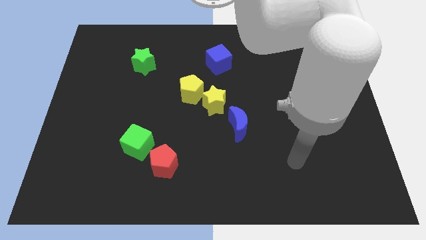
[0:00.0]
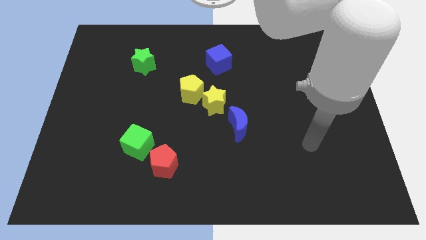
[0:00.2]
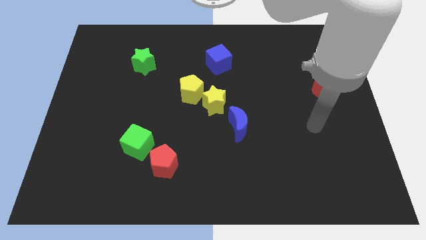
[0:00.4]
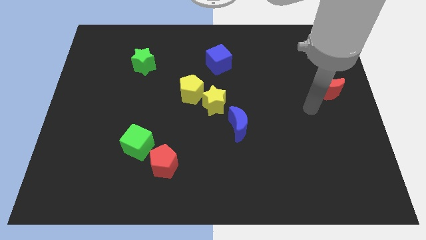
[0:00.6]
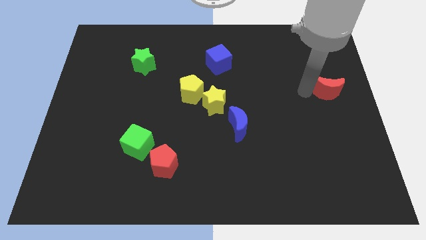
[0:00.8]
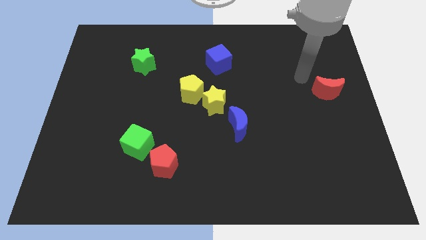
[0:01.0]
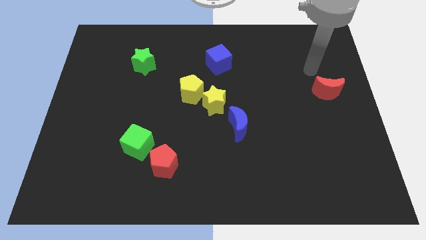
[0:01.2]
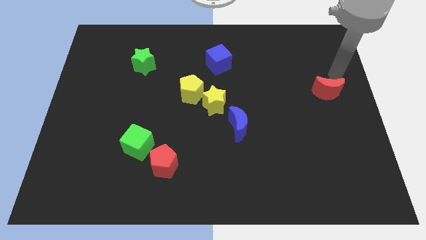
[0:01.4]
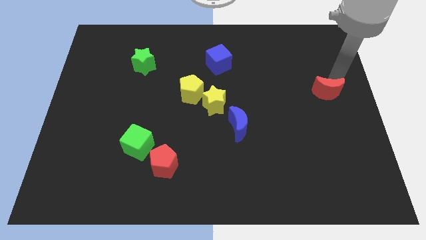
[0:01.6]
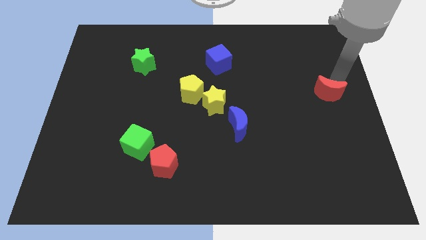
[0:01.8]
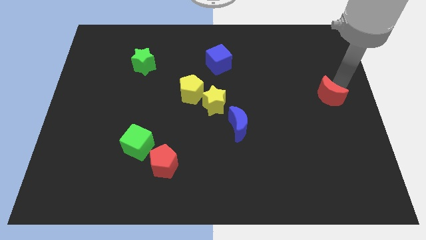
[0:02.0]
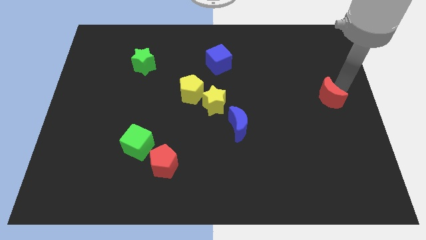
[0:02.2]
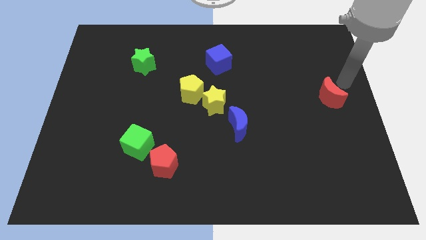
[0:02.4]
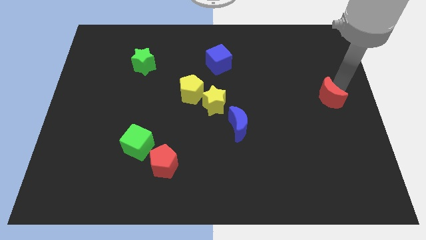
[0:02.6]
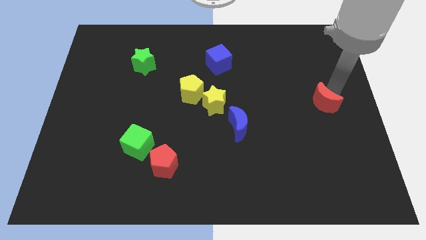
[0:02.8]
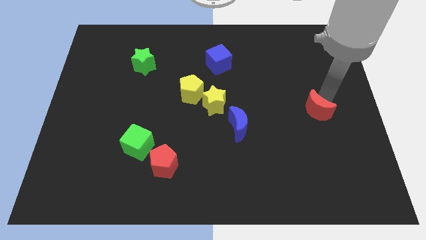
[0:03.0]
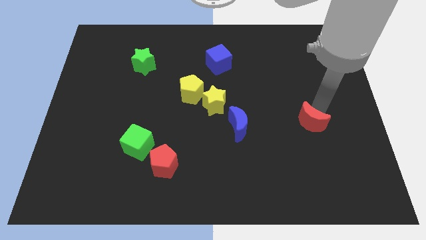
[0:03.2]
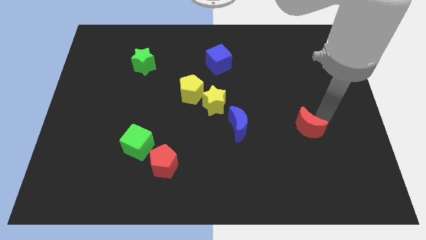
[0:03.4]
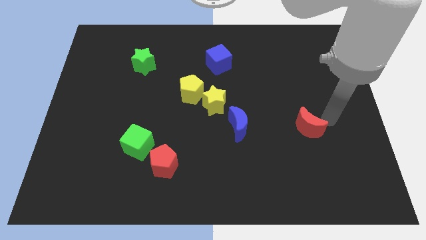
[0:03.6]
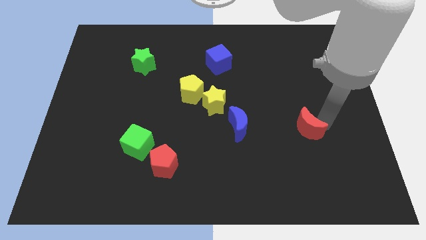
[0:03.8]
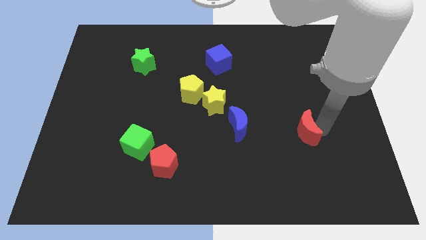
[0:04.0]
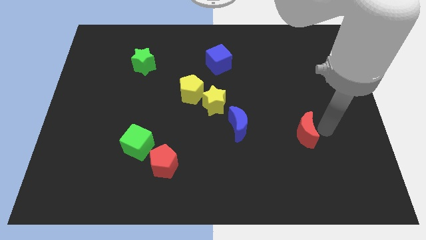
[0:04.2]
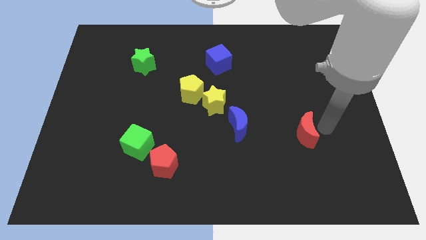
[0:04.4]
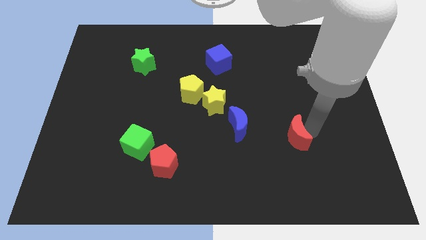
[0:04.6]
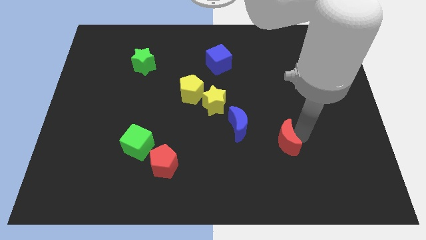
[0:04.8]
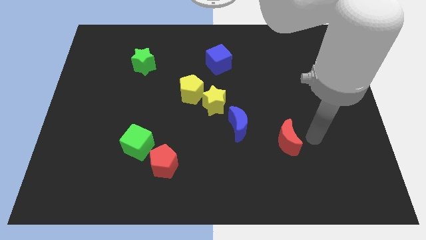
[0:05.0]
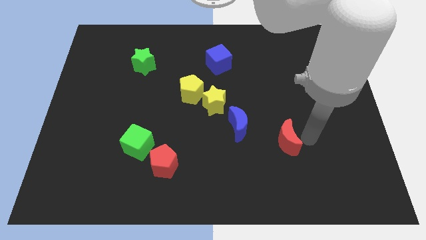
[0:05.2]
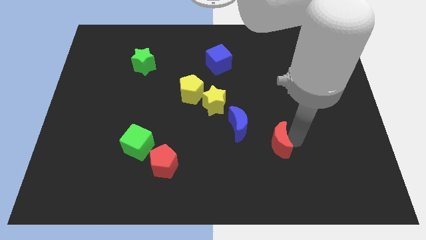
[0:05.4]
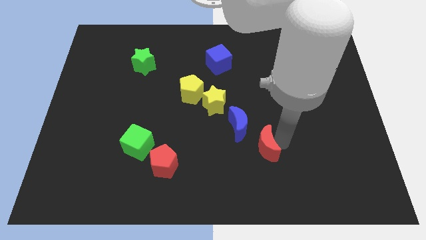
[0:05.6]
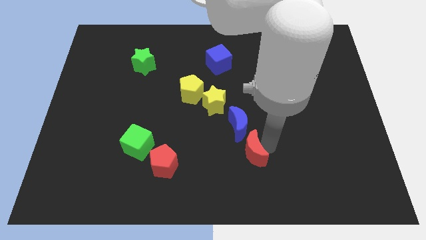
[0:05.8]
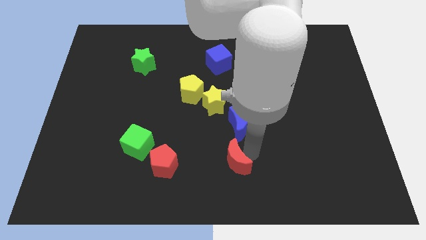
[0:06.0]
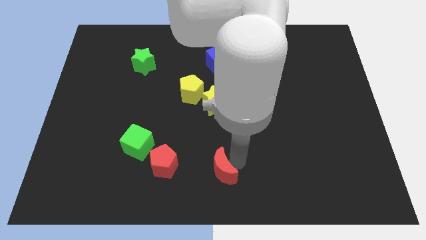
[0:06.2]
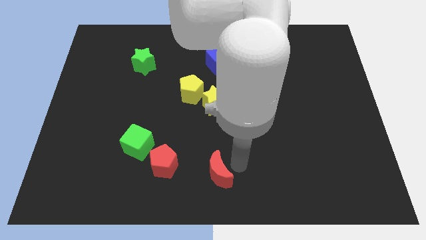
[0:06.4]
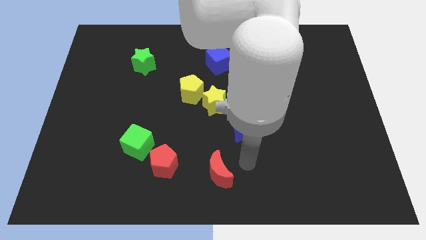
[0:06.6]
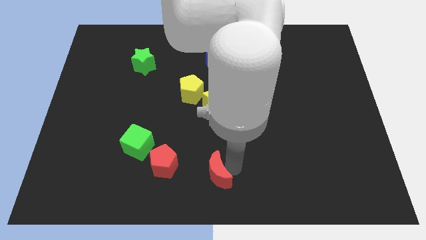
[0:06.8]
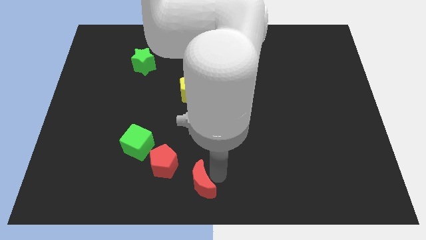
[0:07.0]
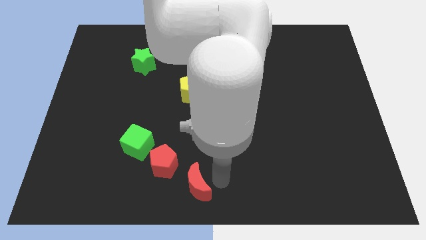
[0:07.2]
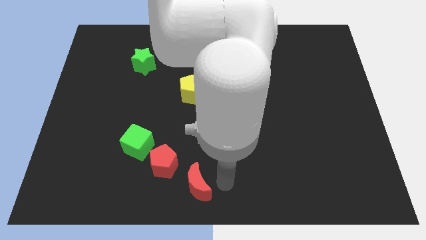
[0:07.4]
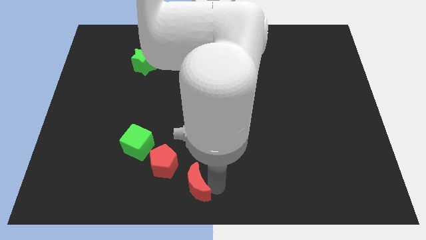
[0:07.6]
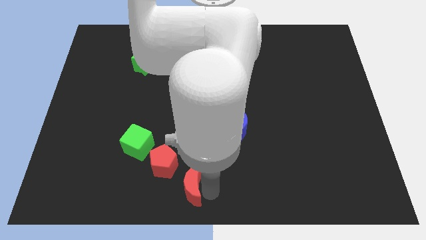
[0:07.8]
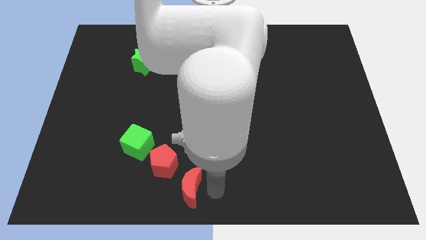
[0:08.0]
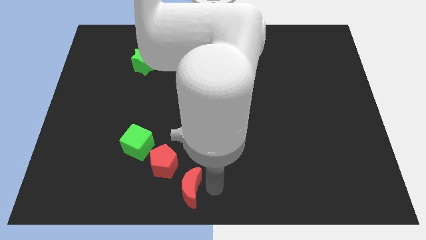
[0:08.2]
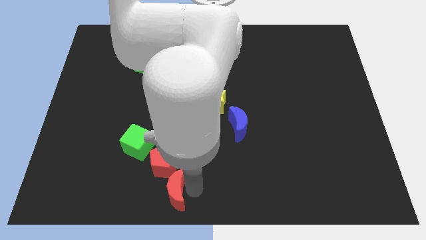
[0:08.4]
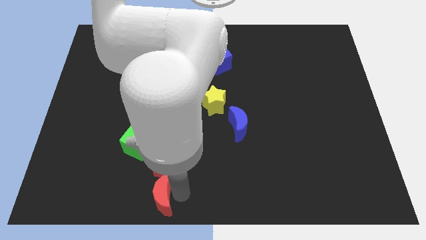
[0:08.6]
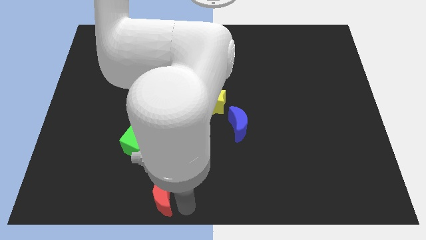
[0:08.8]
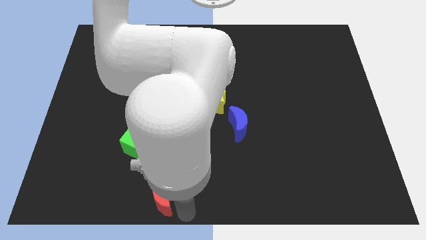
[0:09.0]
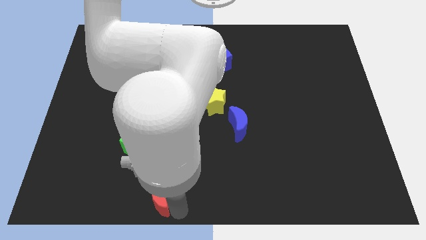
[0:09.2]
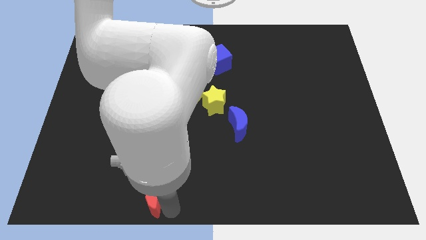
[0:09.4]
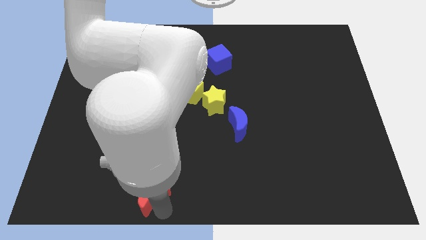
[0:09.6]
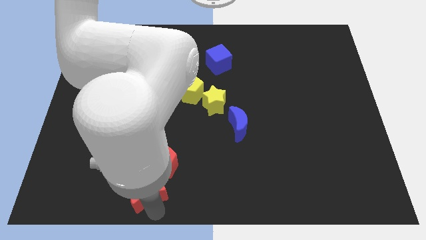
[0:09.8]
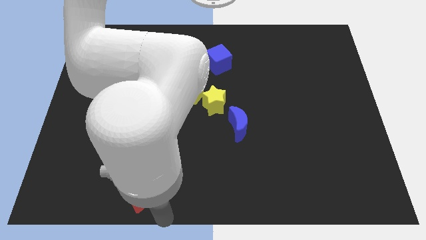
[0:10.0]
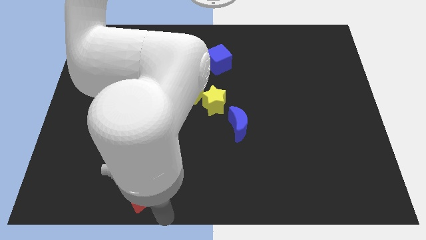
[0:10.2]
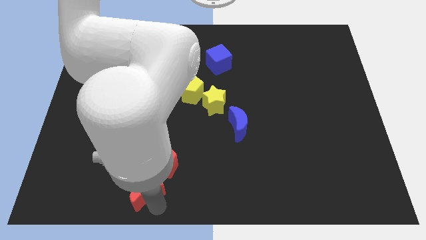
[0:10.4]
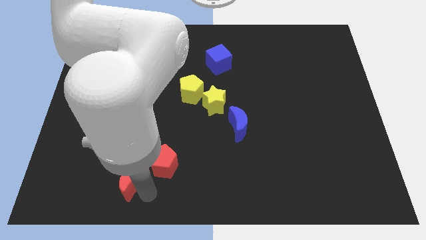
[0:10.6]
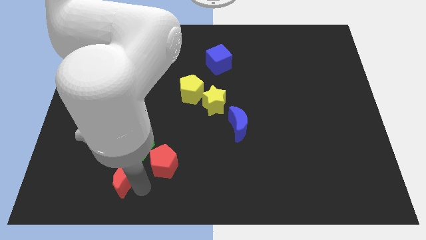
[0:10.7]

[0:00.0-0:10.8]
move the red moon diagonally down and to the left of the green cube

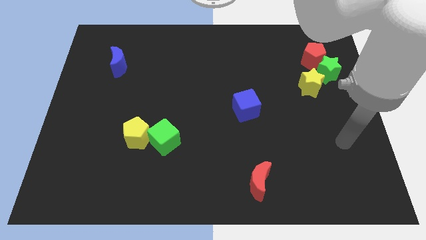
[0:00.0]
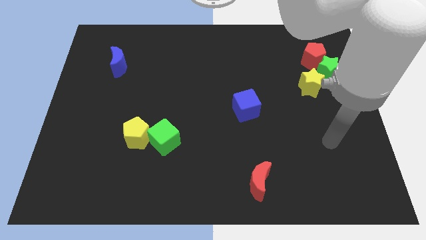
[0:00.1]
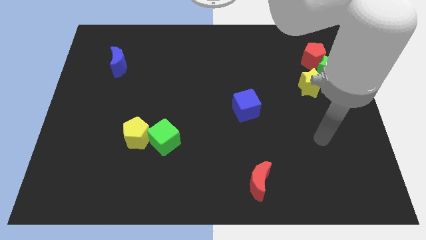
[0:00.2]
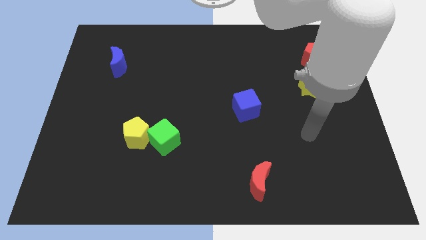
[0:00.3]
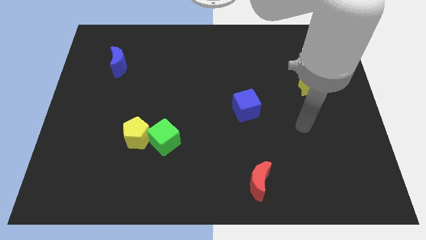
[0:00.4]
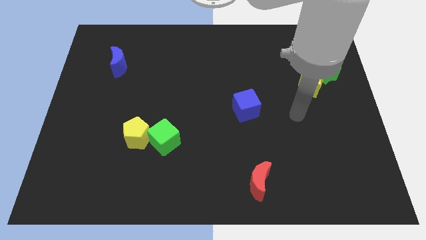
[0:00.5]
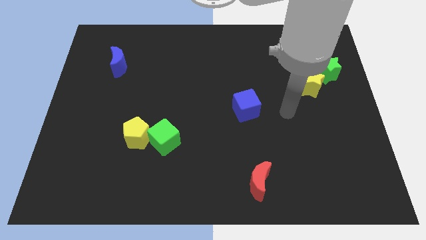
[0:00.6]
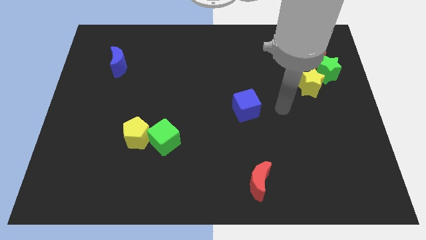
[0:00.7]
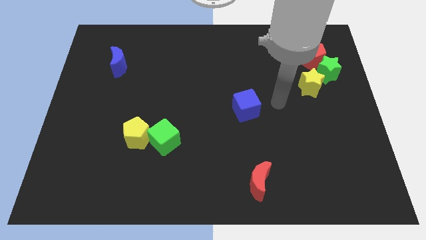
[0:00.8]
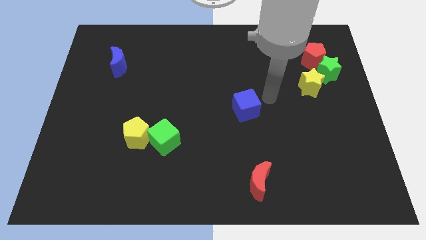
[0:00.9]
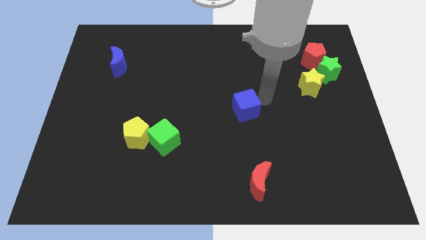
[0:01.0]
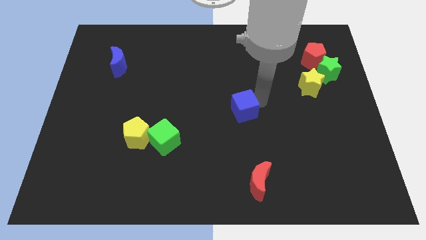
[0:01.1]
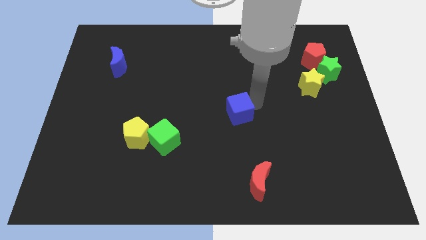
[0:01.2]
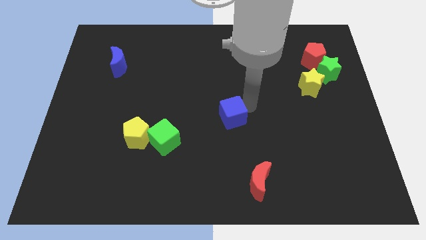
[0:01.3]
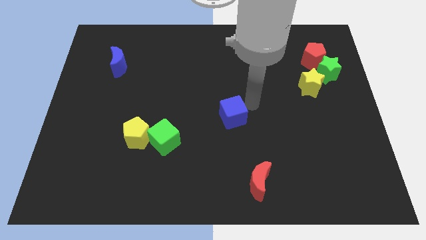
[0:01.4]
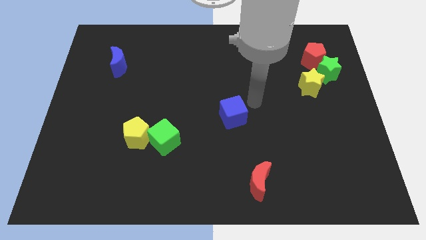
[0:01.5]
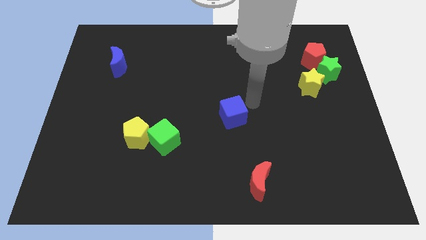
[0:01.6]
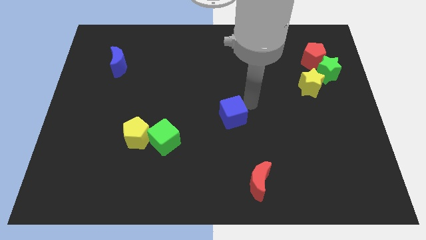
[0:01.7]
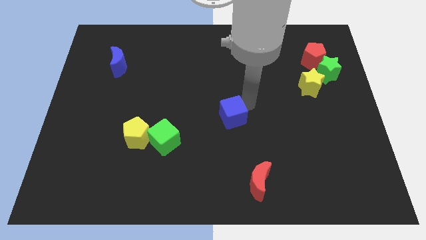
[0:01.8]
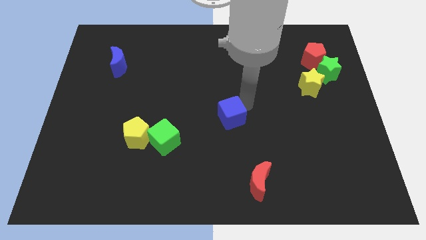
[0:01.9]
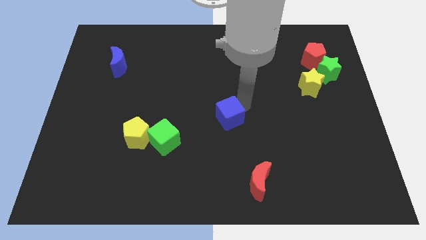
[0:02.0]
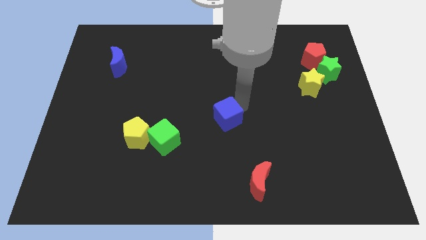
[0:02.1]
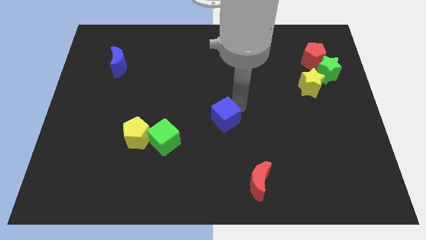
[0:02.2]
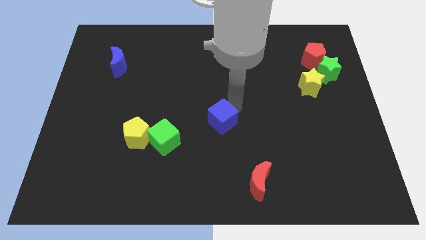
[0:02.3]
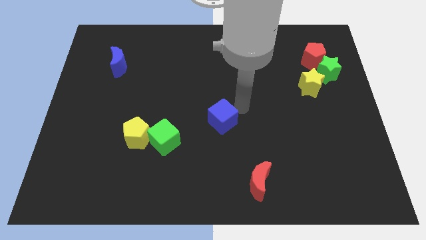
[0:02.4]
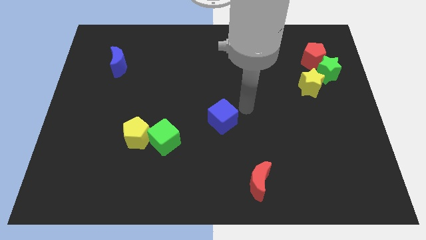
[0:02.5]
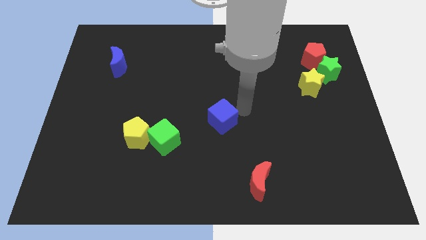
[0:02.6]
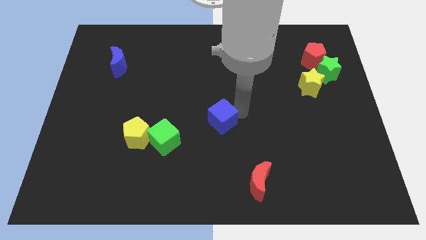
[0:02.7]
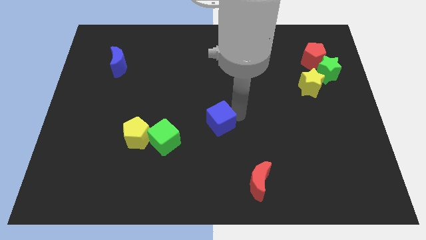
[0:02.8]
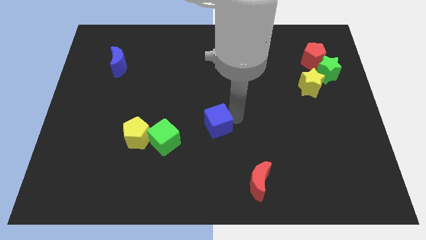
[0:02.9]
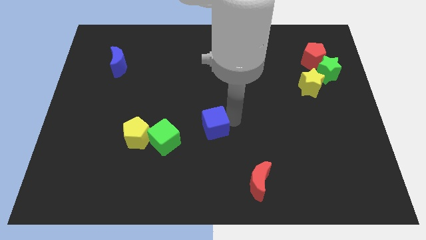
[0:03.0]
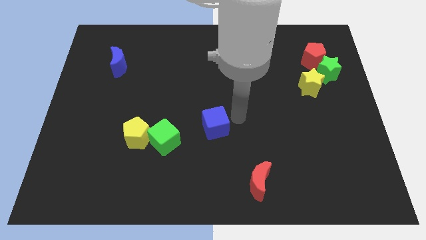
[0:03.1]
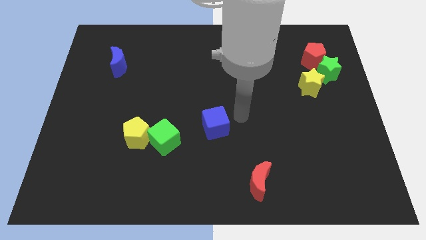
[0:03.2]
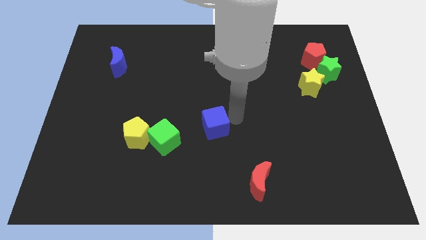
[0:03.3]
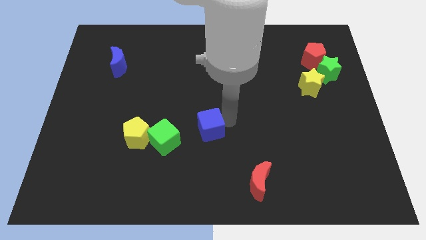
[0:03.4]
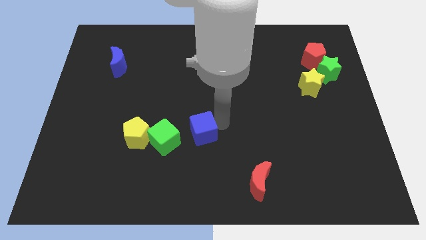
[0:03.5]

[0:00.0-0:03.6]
push the blue cube right of the yellow pentagon
